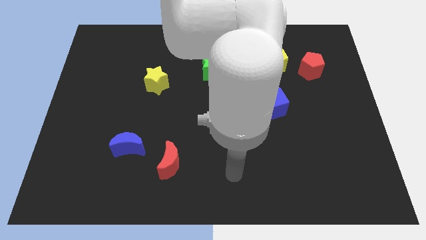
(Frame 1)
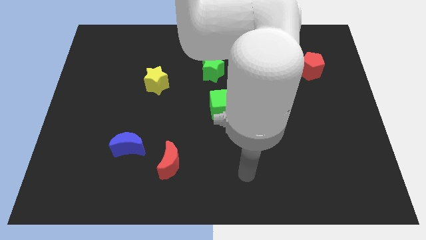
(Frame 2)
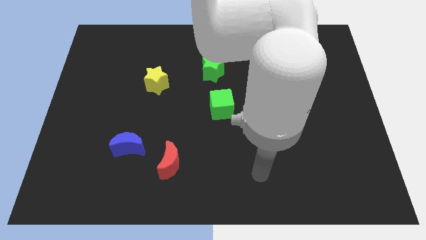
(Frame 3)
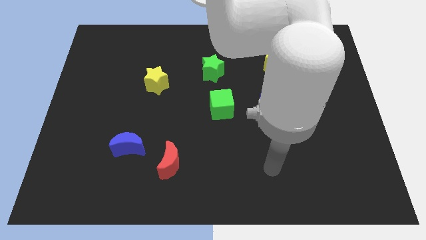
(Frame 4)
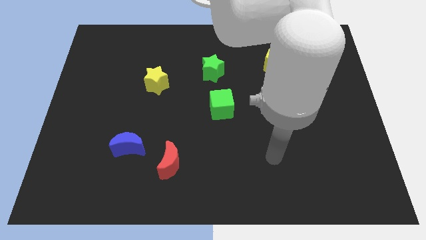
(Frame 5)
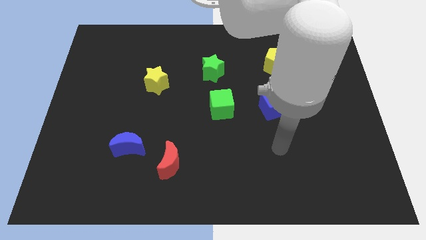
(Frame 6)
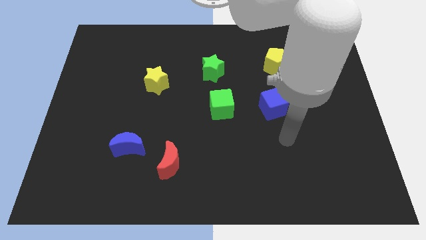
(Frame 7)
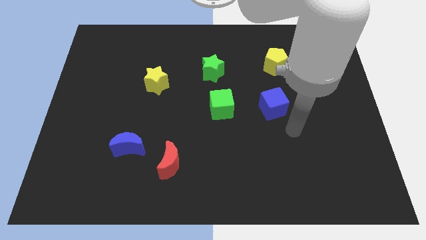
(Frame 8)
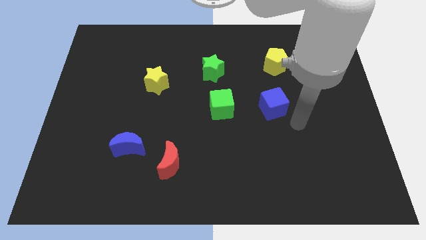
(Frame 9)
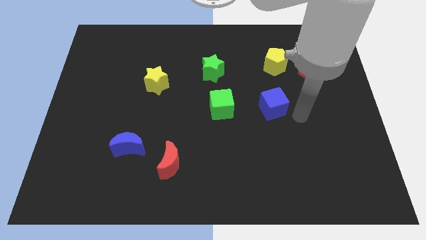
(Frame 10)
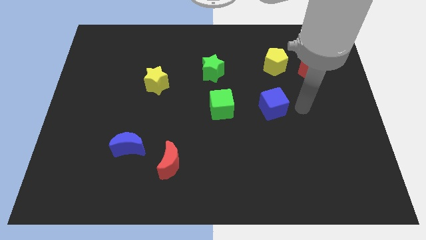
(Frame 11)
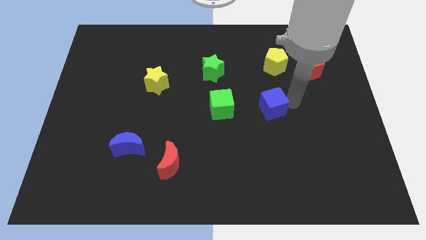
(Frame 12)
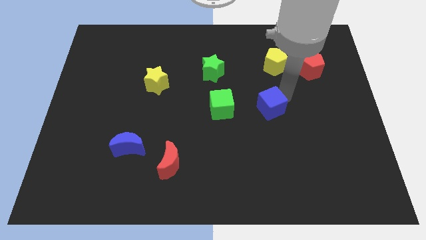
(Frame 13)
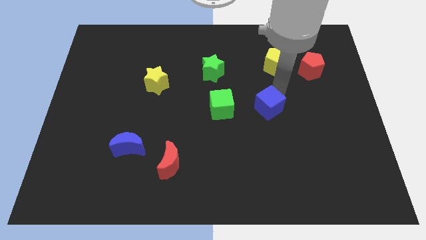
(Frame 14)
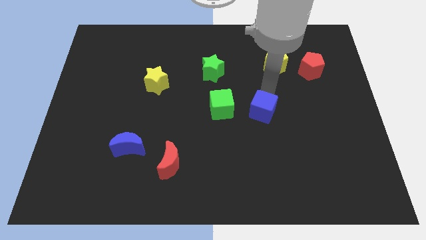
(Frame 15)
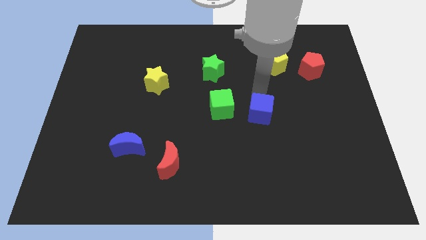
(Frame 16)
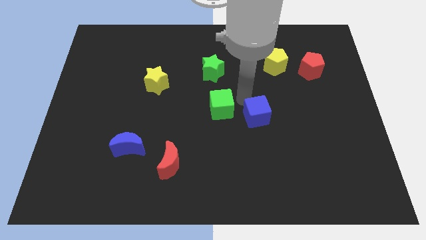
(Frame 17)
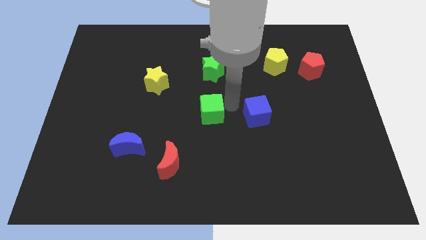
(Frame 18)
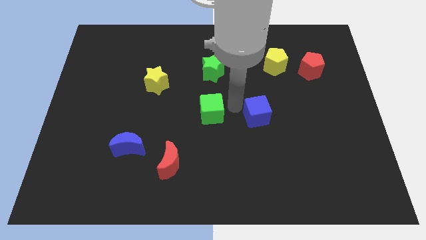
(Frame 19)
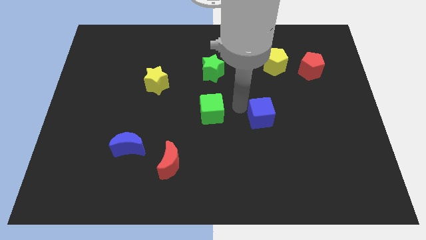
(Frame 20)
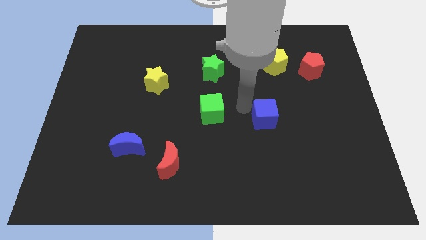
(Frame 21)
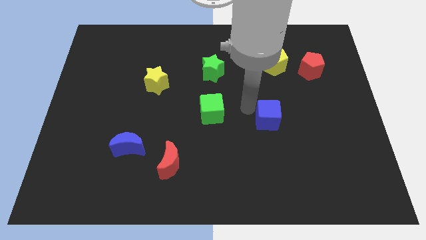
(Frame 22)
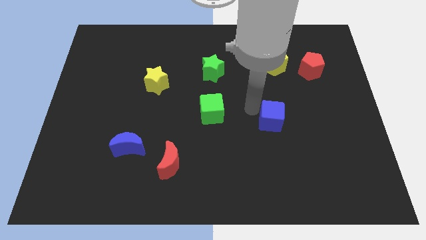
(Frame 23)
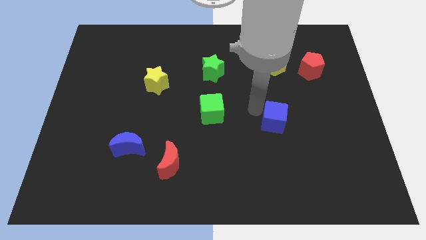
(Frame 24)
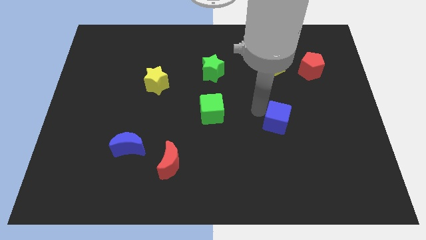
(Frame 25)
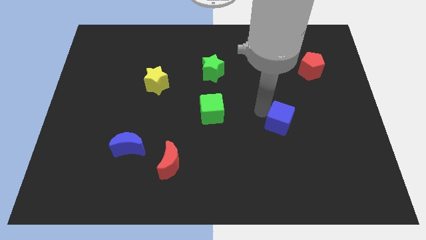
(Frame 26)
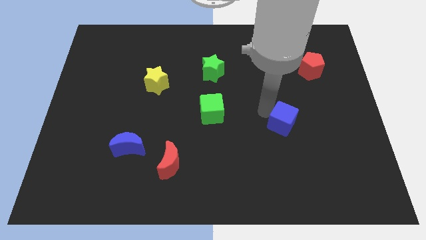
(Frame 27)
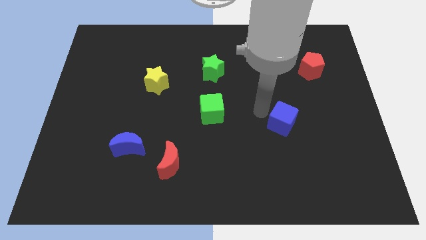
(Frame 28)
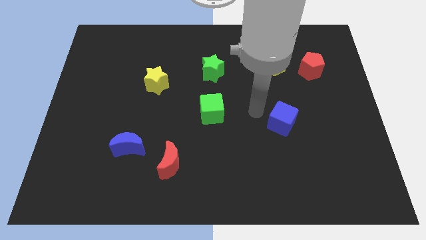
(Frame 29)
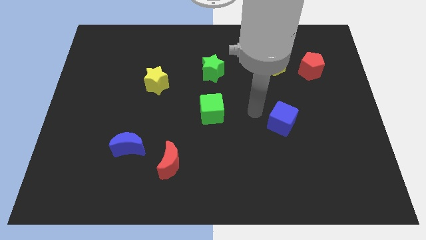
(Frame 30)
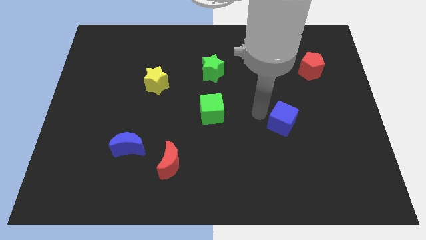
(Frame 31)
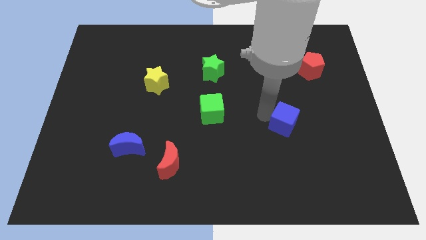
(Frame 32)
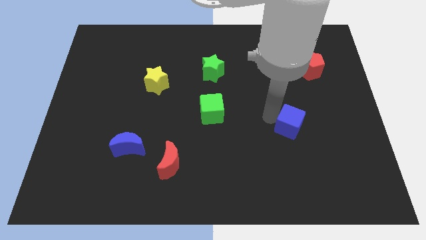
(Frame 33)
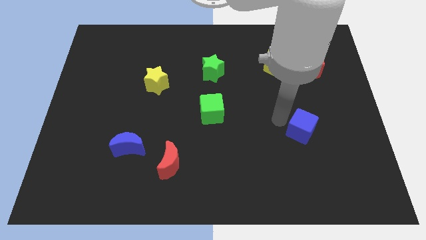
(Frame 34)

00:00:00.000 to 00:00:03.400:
slide the blue cube diagonally downwards and to the right somewhat

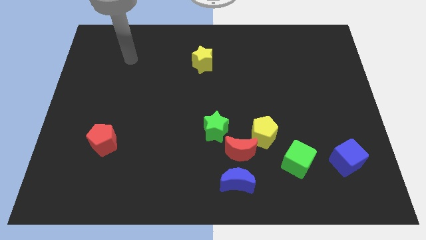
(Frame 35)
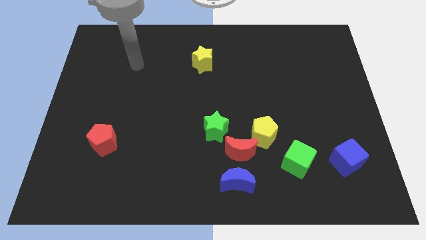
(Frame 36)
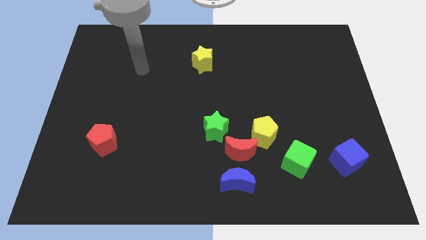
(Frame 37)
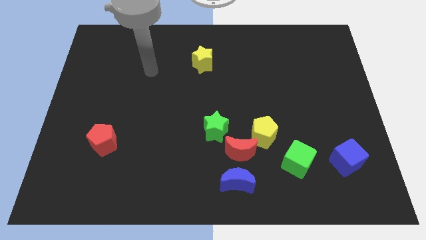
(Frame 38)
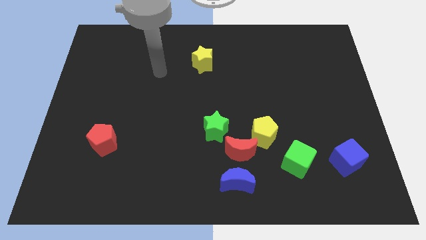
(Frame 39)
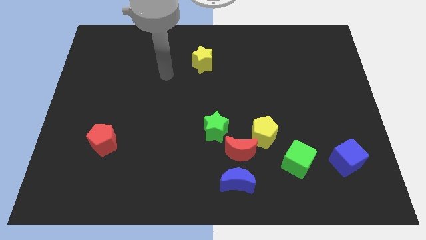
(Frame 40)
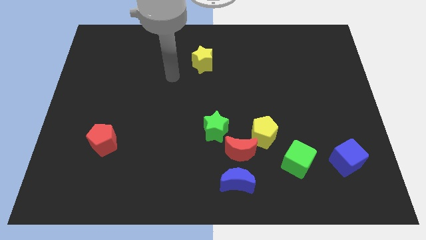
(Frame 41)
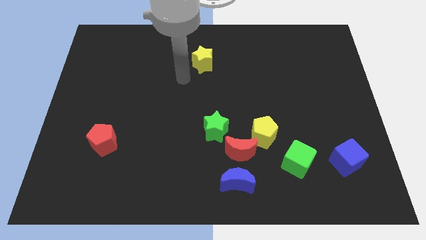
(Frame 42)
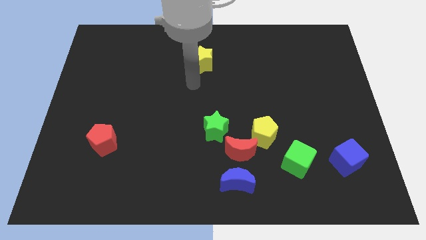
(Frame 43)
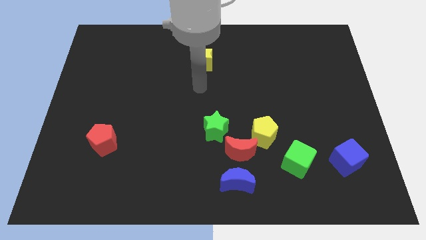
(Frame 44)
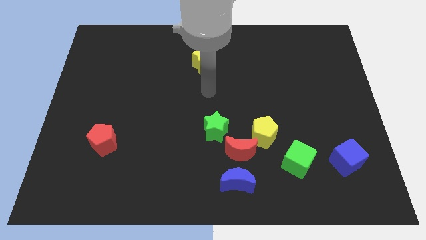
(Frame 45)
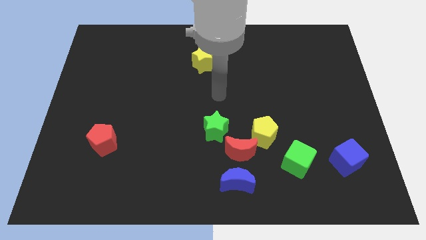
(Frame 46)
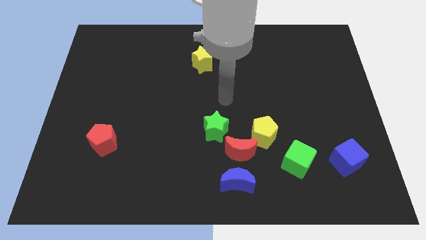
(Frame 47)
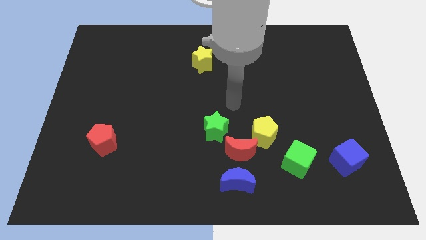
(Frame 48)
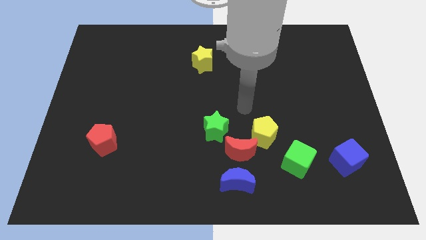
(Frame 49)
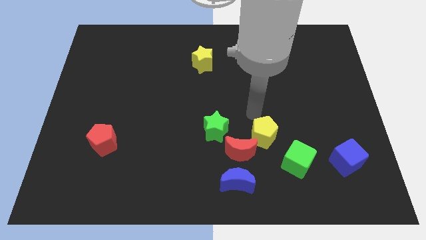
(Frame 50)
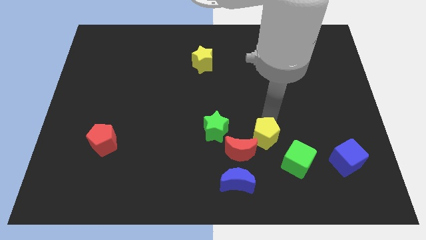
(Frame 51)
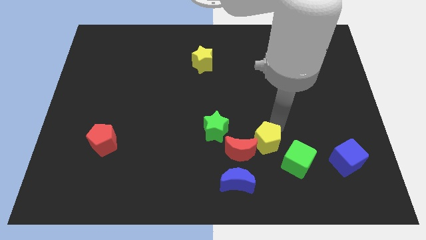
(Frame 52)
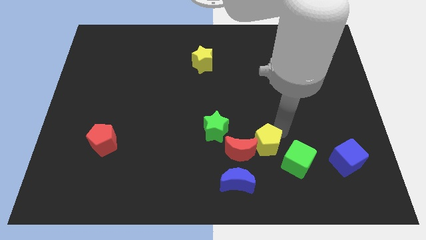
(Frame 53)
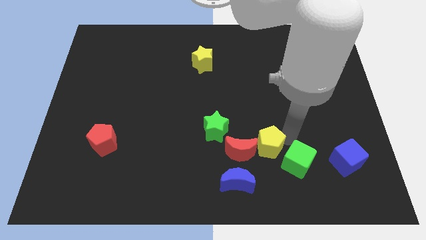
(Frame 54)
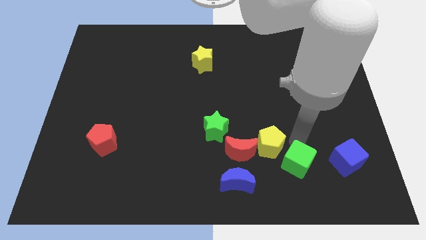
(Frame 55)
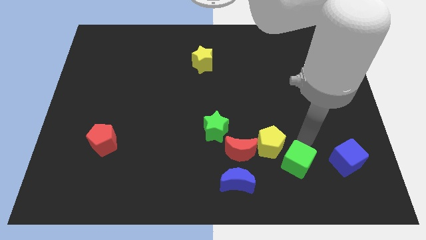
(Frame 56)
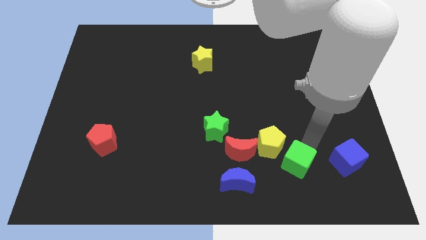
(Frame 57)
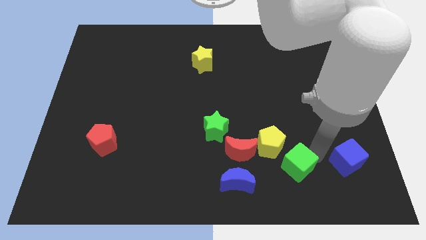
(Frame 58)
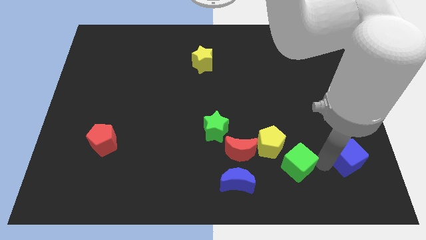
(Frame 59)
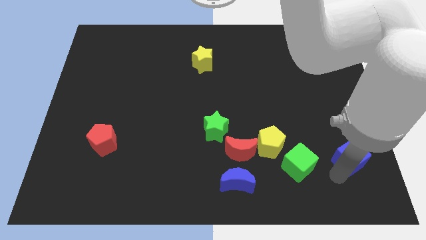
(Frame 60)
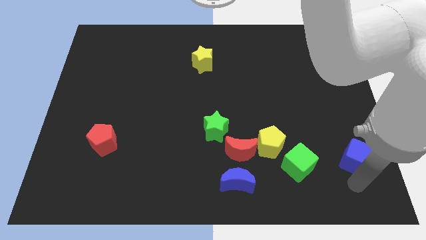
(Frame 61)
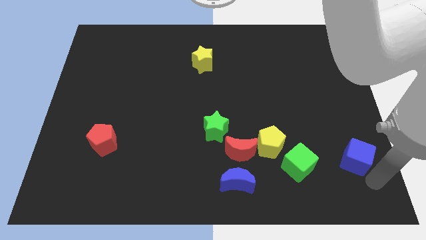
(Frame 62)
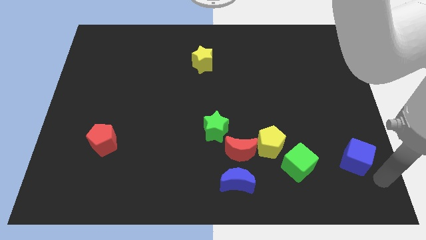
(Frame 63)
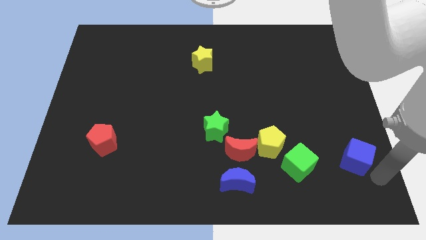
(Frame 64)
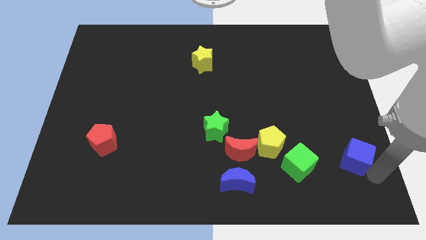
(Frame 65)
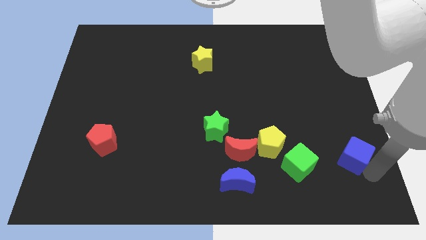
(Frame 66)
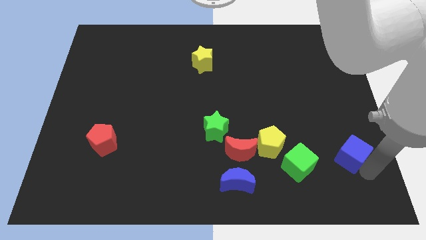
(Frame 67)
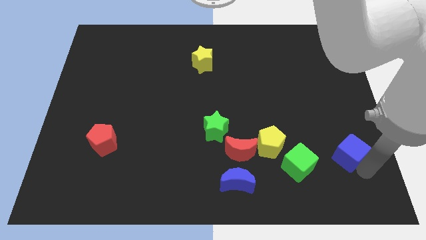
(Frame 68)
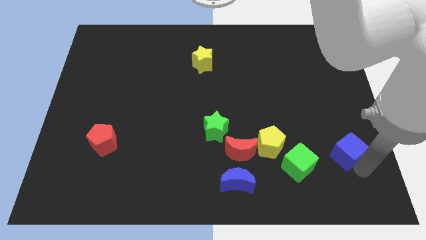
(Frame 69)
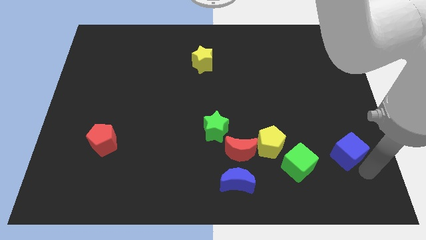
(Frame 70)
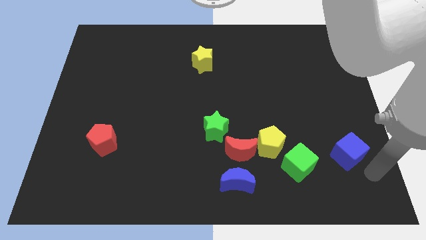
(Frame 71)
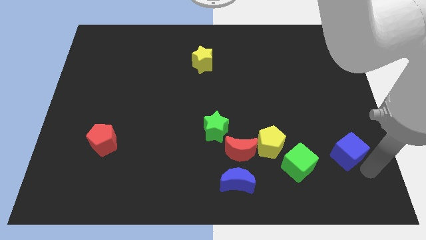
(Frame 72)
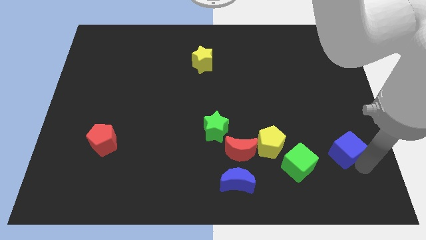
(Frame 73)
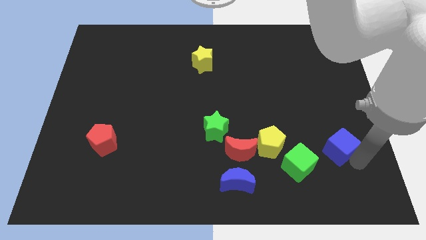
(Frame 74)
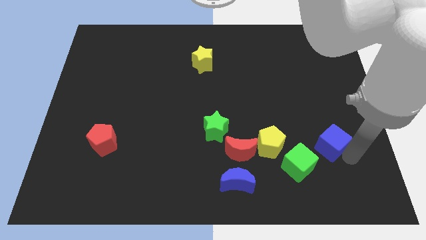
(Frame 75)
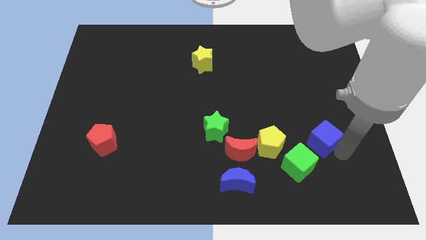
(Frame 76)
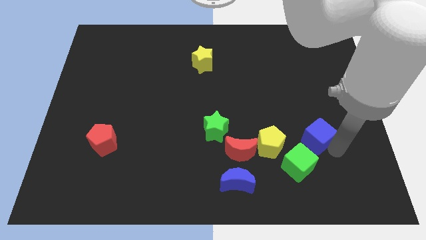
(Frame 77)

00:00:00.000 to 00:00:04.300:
push the blue cube a little upwards and to the left diagonally
